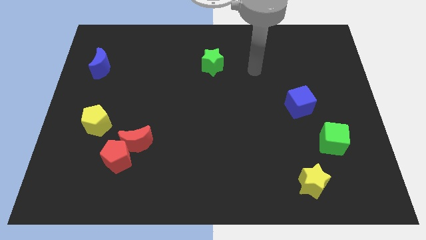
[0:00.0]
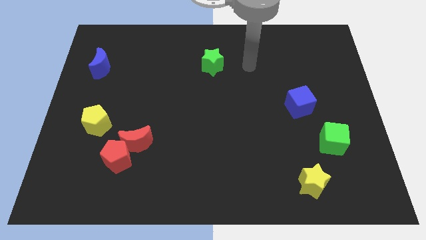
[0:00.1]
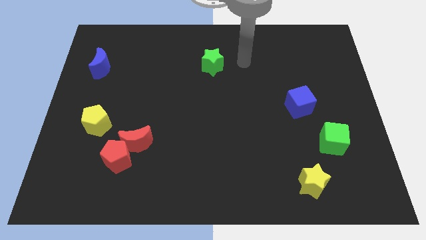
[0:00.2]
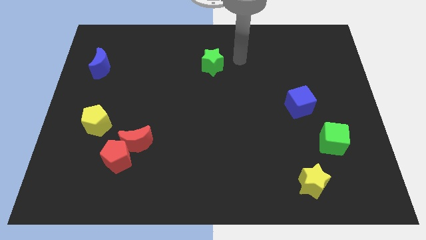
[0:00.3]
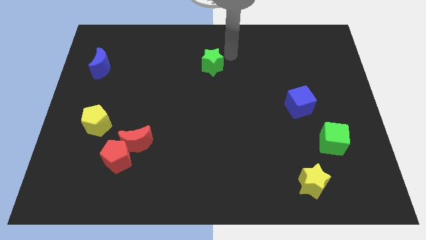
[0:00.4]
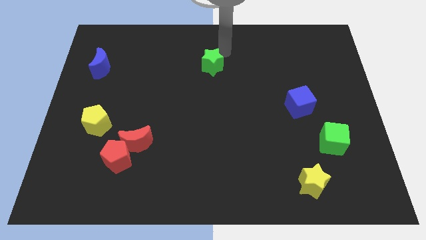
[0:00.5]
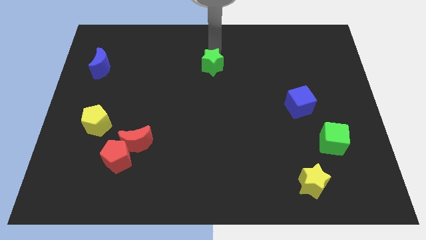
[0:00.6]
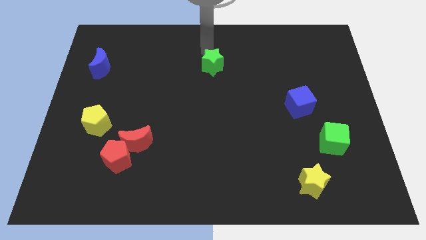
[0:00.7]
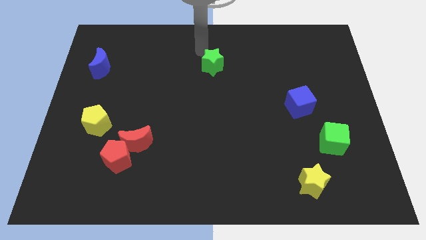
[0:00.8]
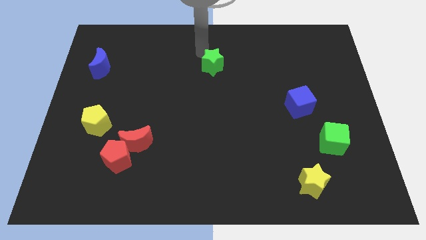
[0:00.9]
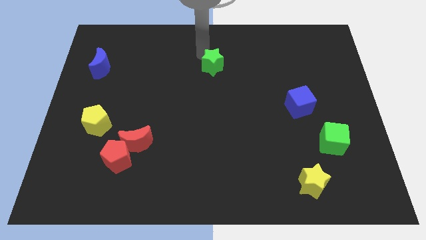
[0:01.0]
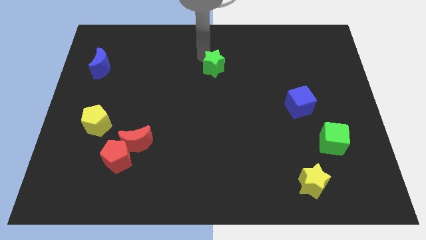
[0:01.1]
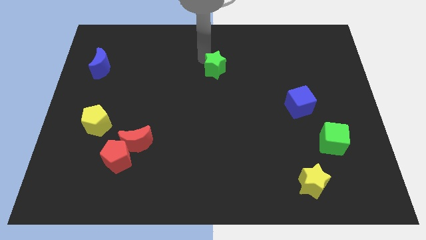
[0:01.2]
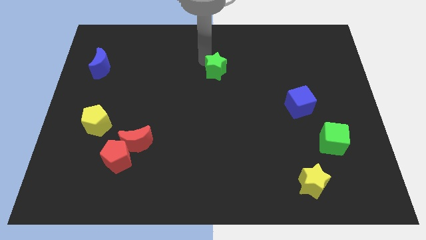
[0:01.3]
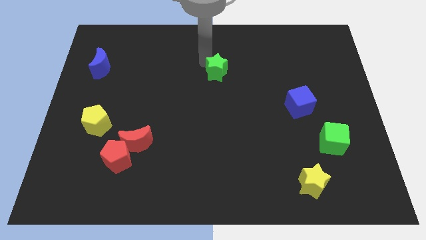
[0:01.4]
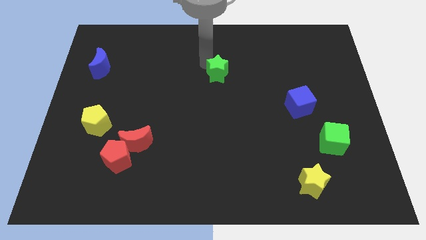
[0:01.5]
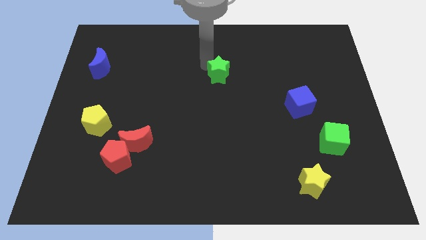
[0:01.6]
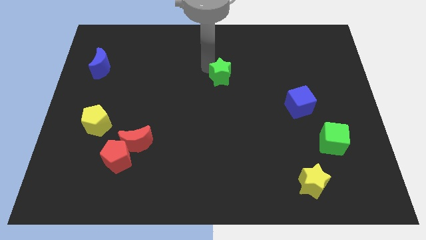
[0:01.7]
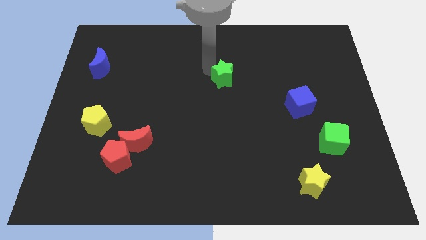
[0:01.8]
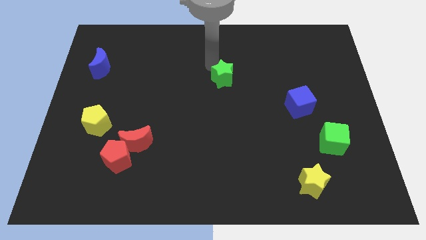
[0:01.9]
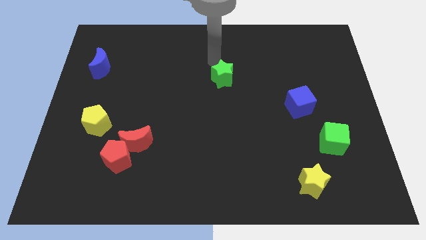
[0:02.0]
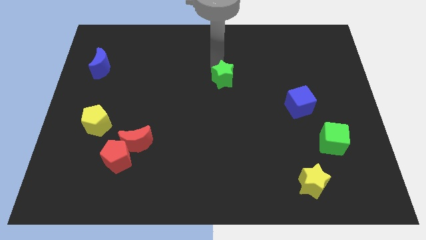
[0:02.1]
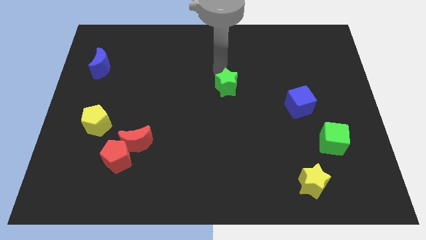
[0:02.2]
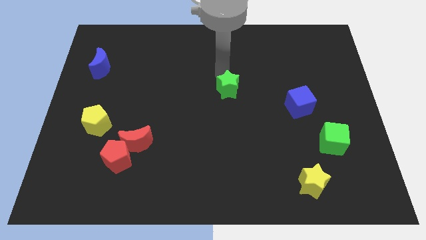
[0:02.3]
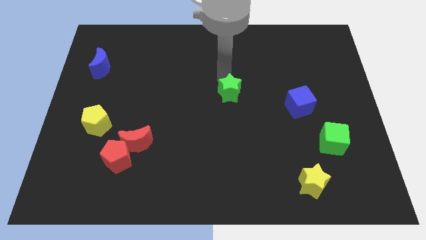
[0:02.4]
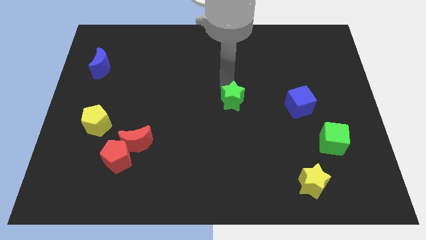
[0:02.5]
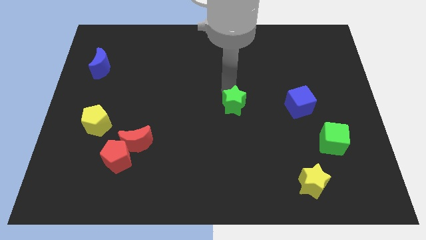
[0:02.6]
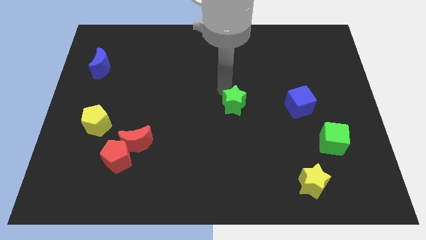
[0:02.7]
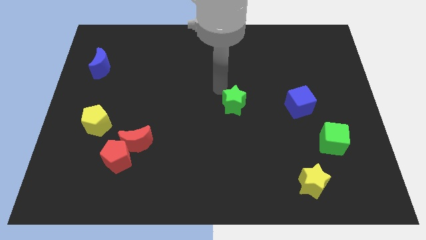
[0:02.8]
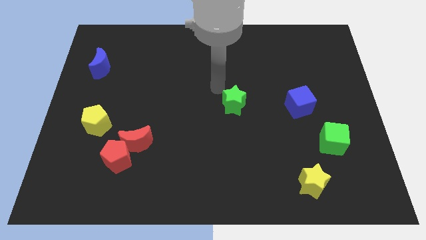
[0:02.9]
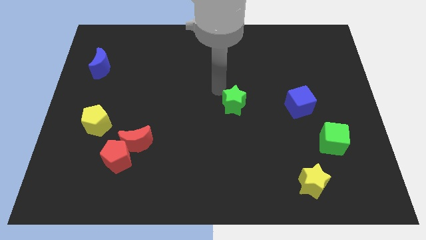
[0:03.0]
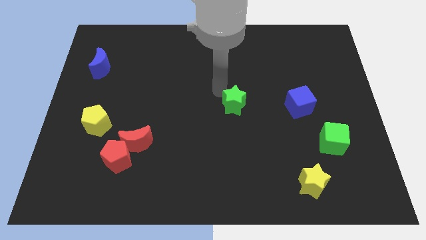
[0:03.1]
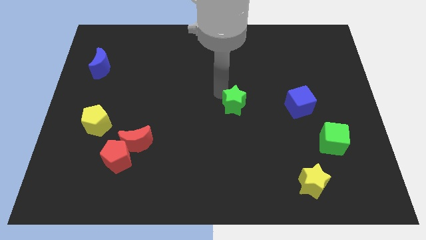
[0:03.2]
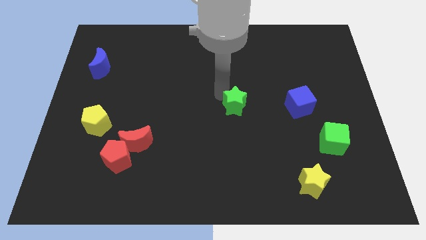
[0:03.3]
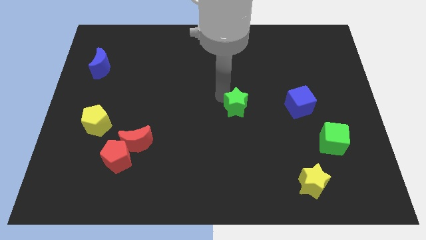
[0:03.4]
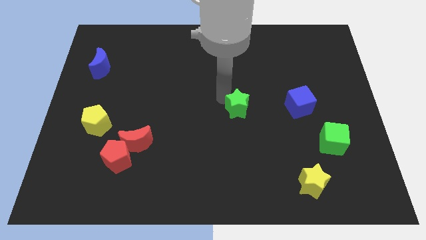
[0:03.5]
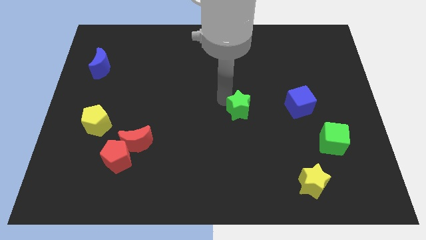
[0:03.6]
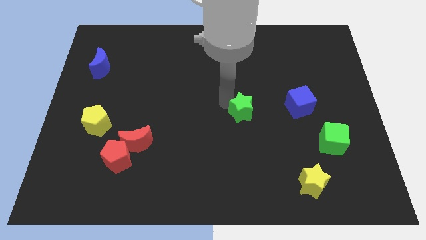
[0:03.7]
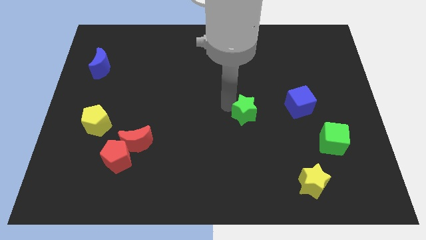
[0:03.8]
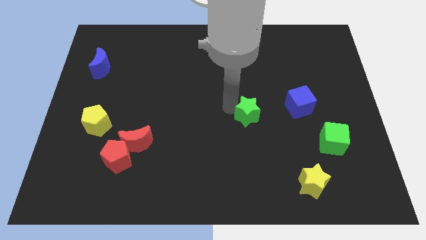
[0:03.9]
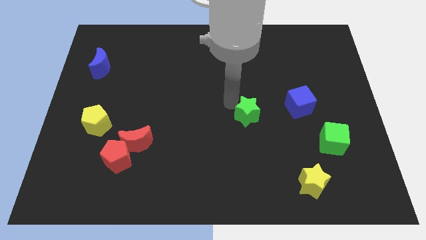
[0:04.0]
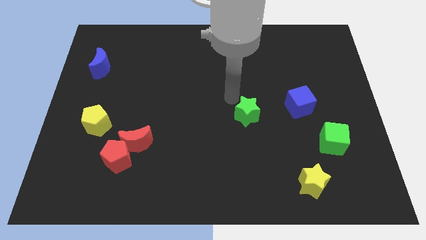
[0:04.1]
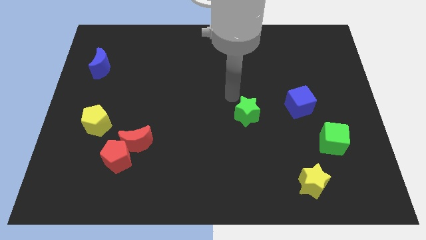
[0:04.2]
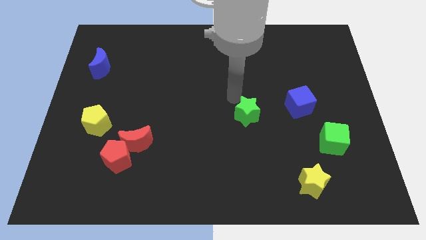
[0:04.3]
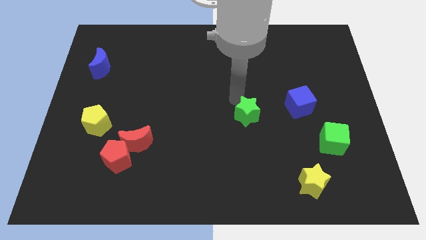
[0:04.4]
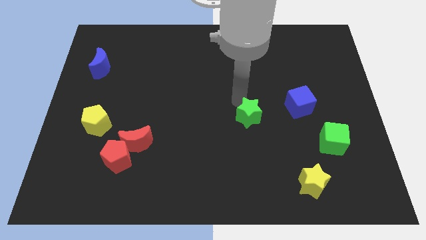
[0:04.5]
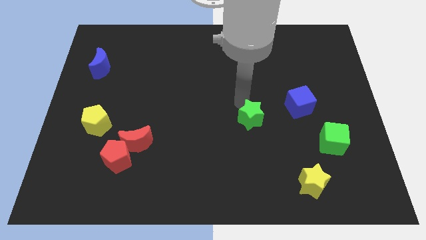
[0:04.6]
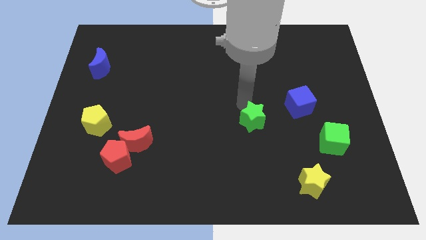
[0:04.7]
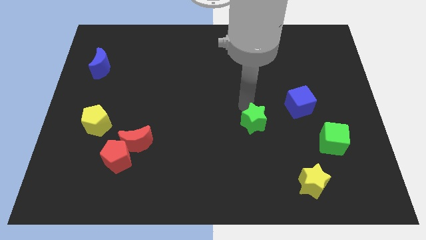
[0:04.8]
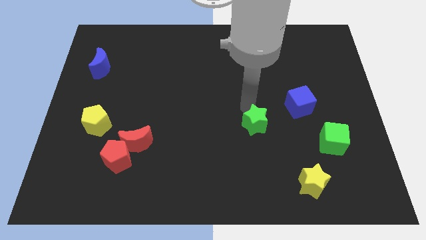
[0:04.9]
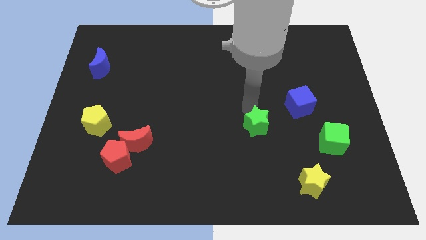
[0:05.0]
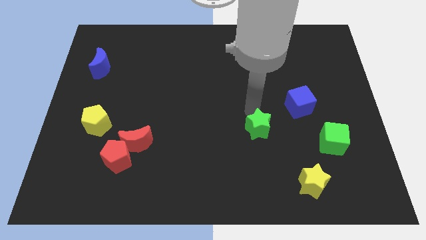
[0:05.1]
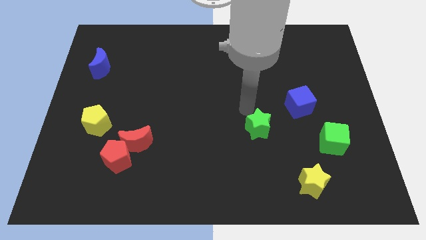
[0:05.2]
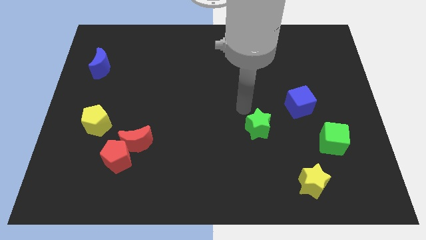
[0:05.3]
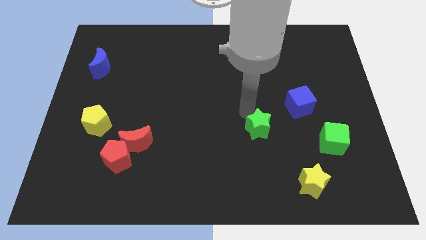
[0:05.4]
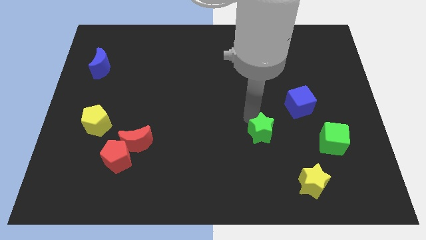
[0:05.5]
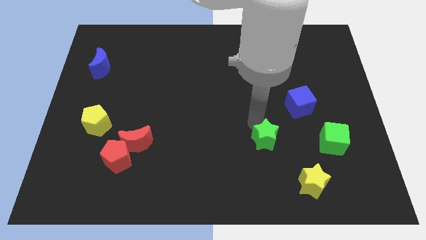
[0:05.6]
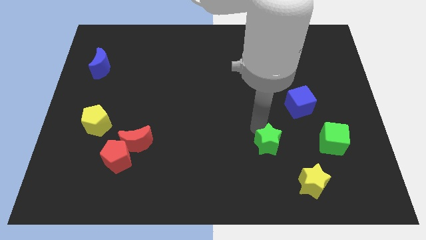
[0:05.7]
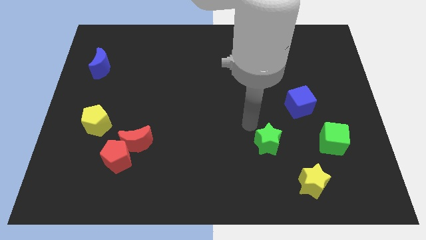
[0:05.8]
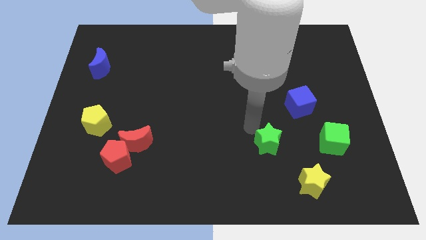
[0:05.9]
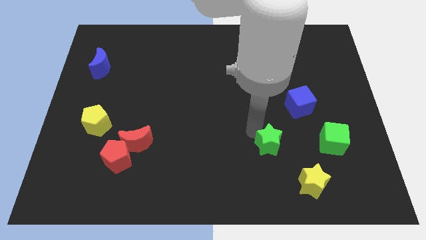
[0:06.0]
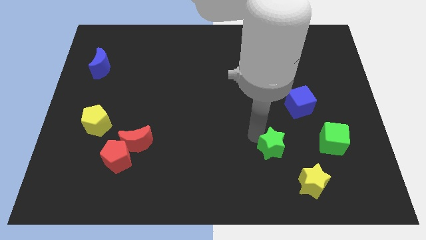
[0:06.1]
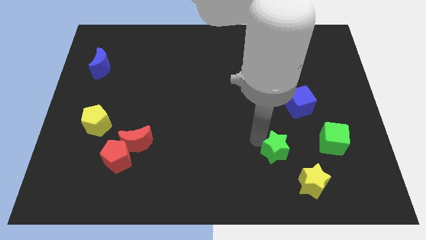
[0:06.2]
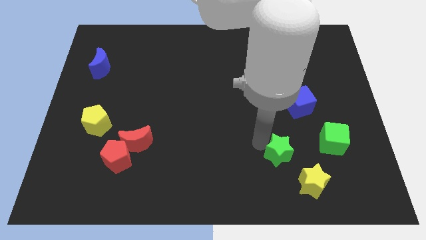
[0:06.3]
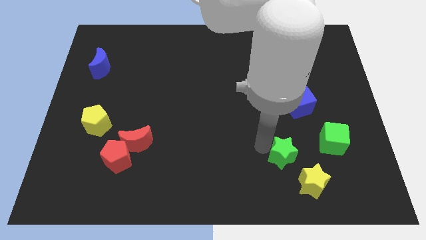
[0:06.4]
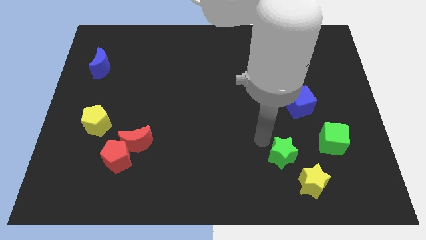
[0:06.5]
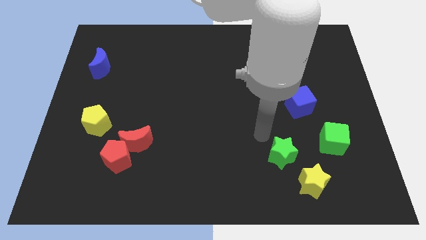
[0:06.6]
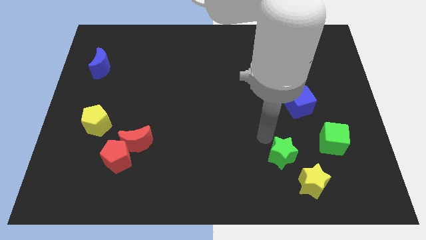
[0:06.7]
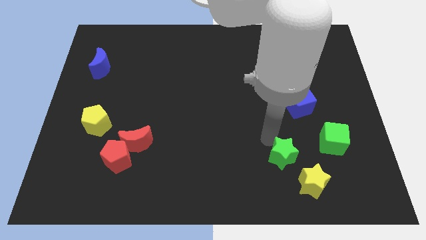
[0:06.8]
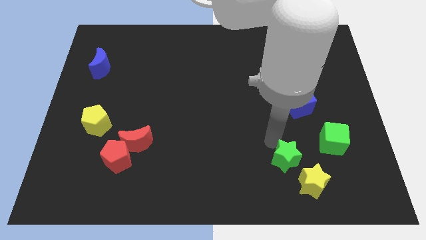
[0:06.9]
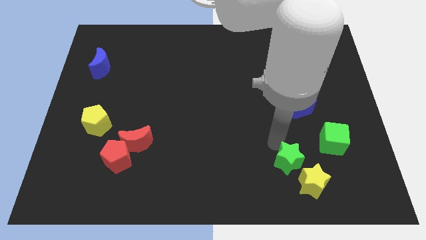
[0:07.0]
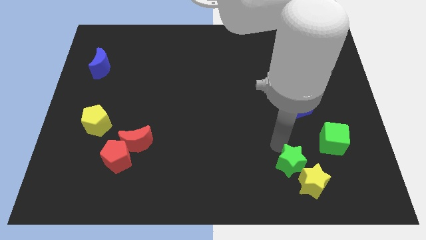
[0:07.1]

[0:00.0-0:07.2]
push the green star towards the yellow star

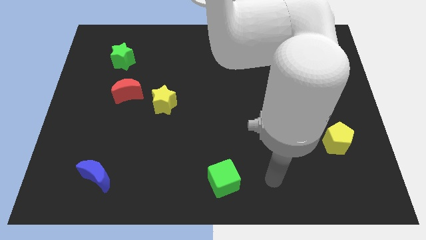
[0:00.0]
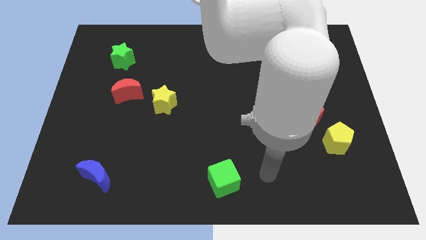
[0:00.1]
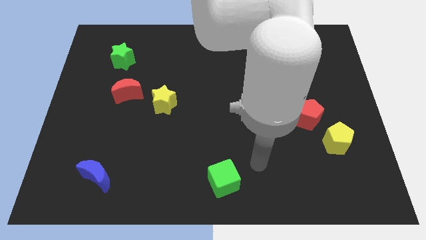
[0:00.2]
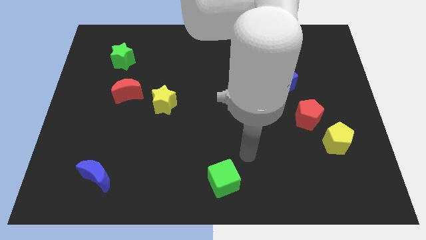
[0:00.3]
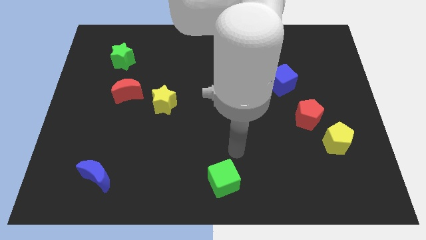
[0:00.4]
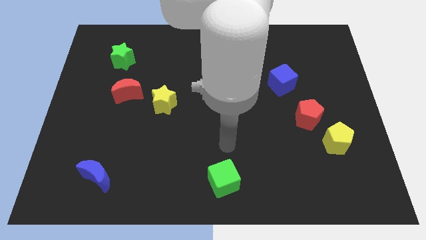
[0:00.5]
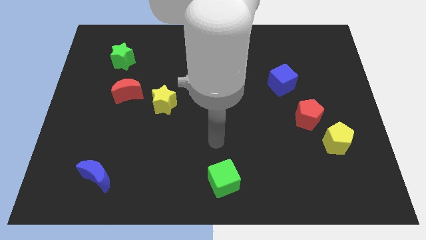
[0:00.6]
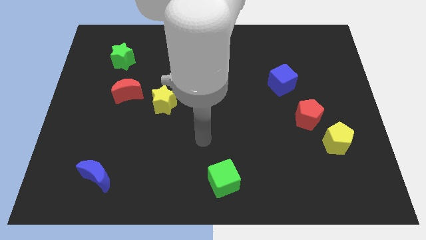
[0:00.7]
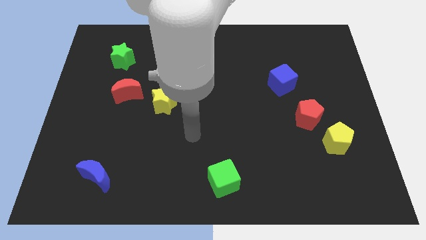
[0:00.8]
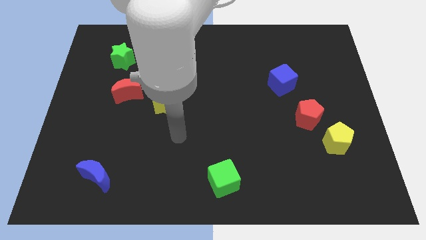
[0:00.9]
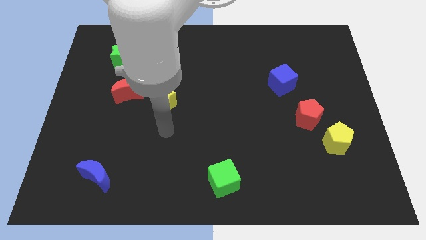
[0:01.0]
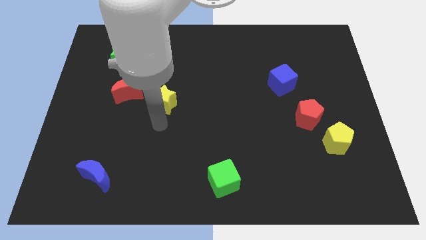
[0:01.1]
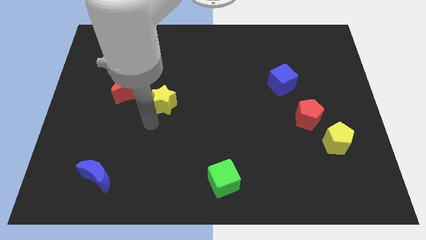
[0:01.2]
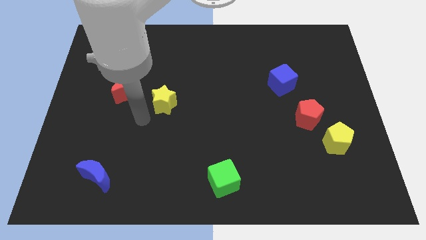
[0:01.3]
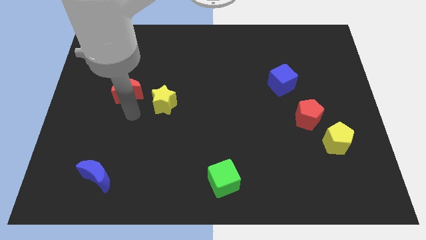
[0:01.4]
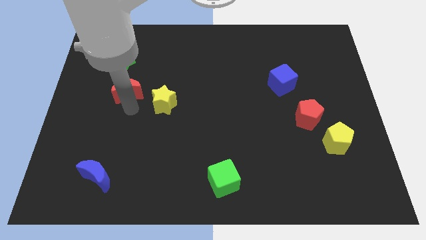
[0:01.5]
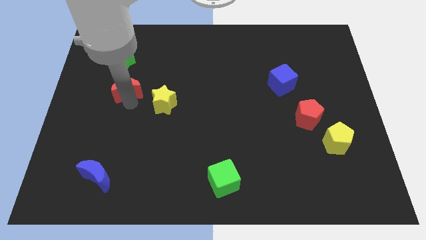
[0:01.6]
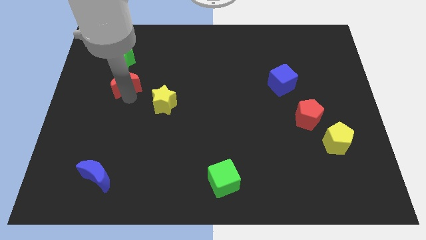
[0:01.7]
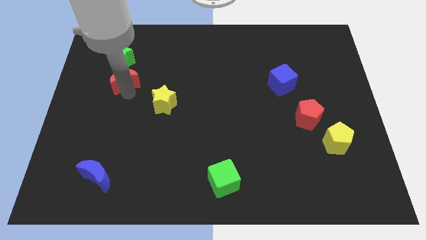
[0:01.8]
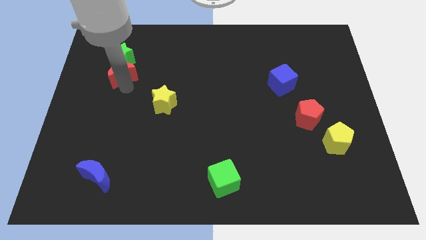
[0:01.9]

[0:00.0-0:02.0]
push the red moon to the green star
